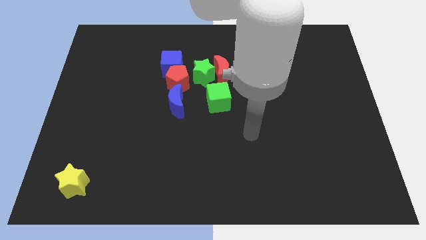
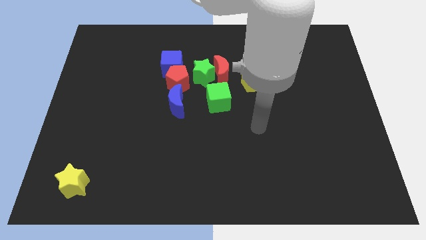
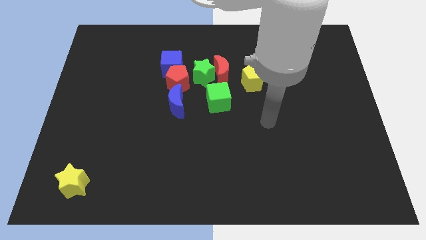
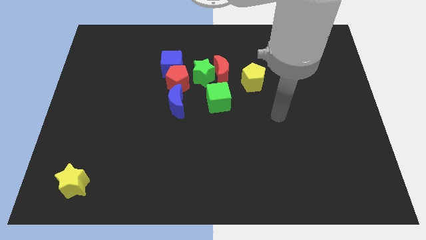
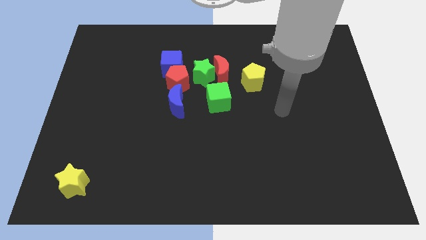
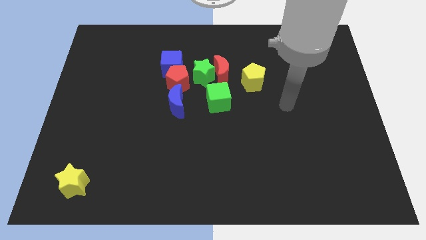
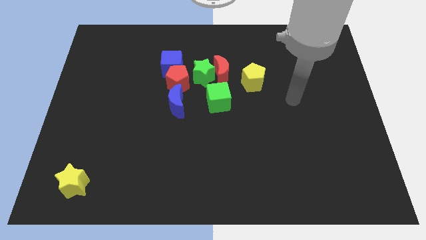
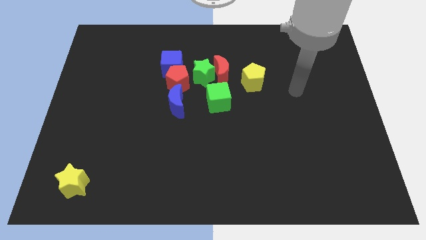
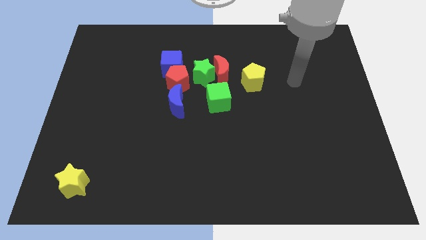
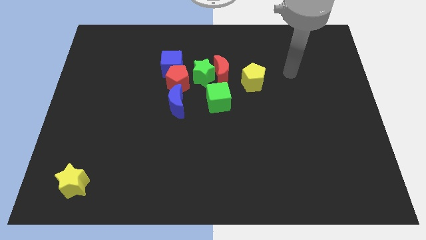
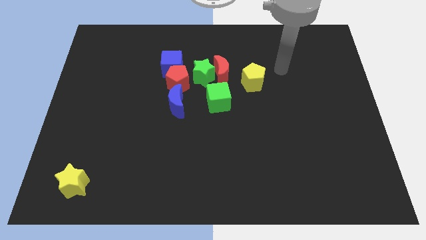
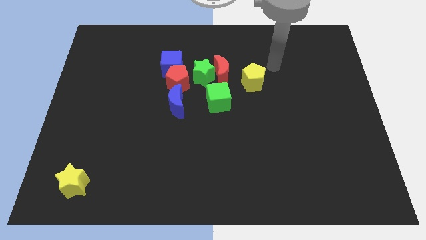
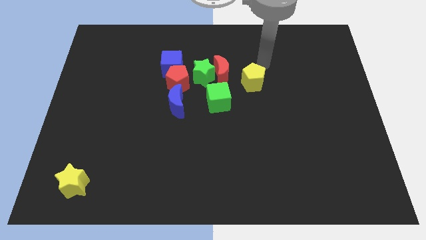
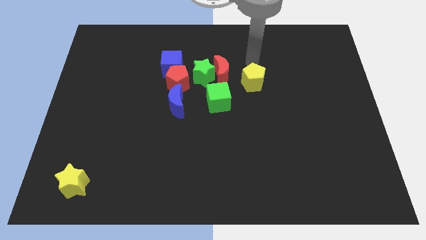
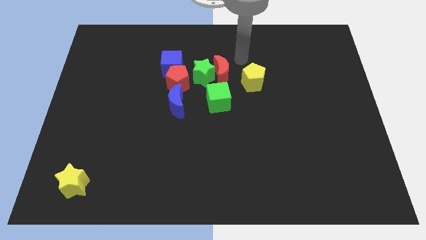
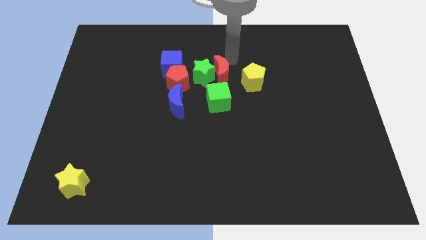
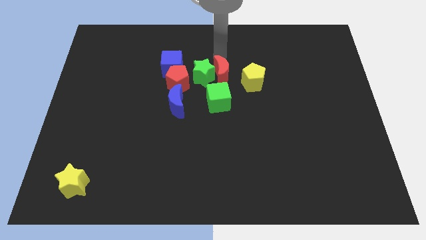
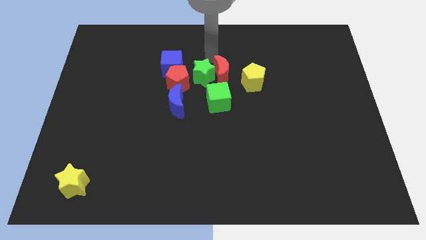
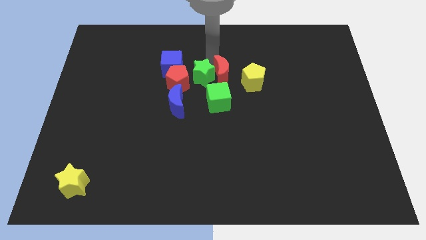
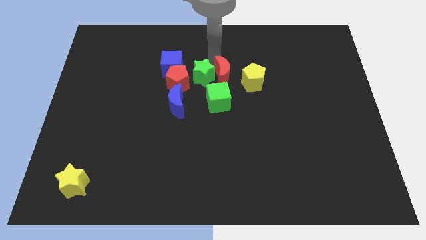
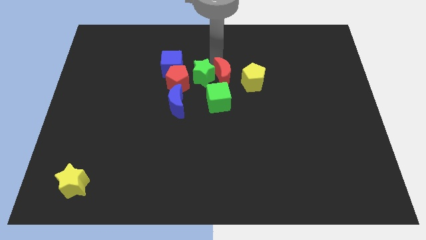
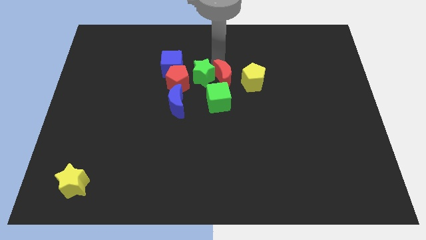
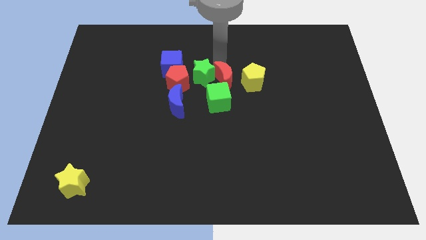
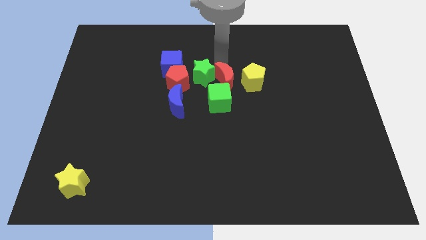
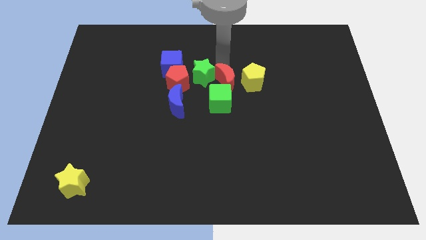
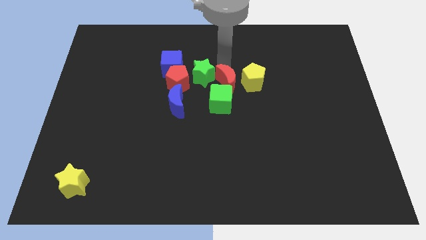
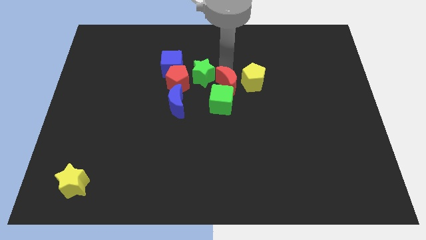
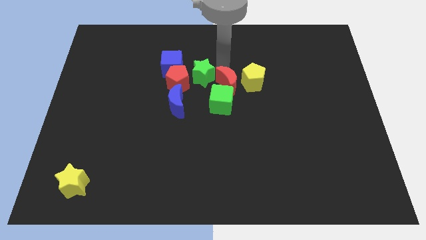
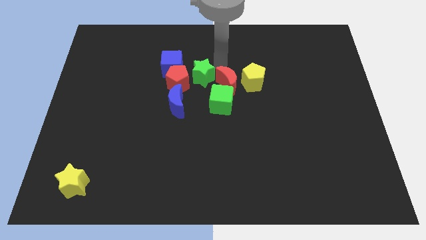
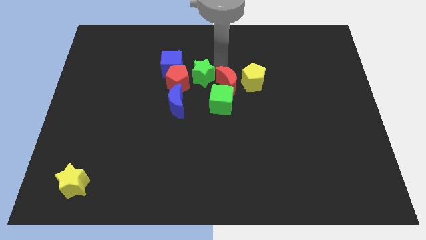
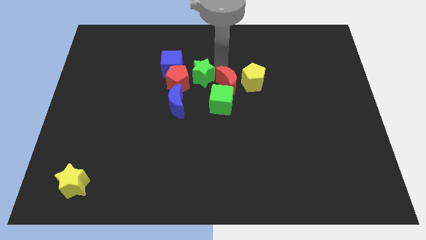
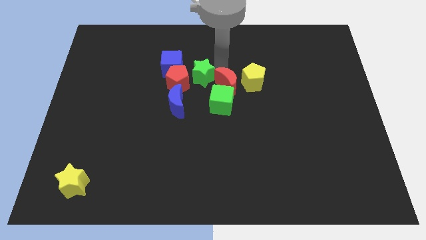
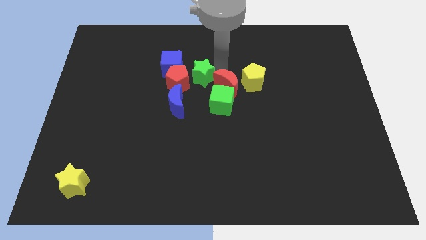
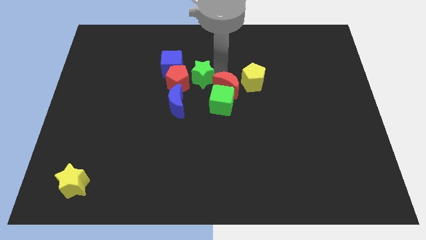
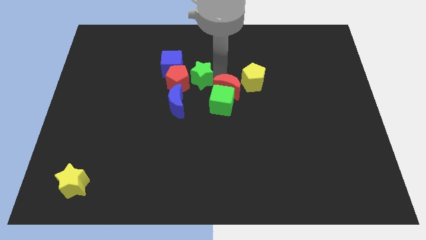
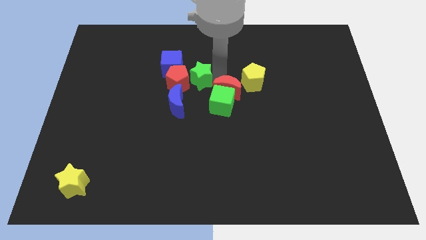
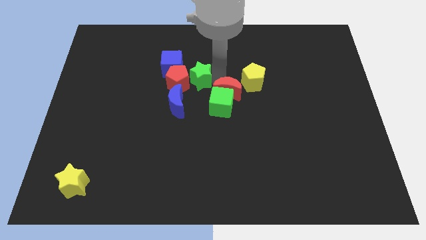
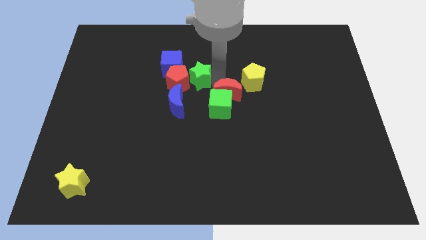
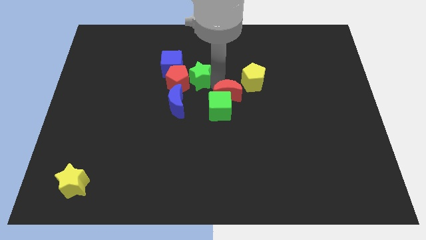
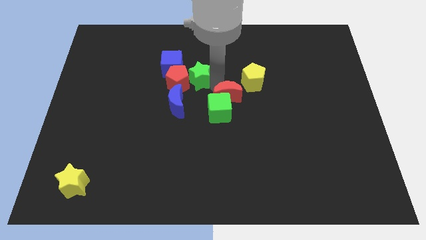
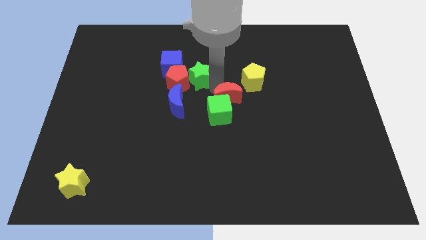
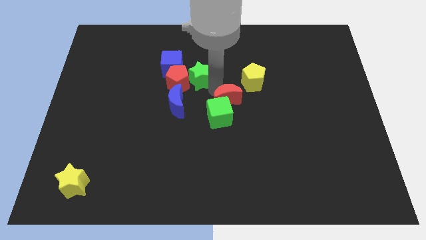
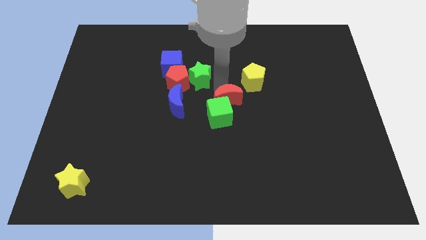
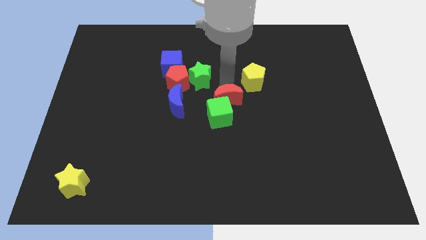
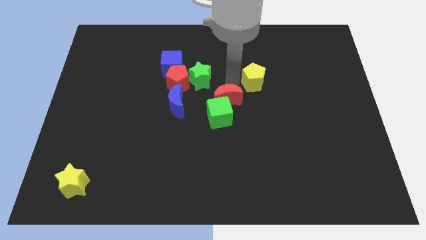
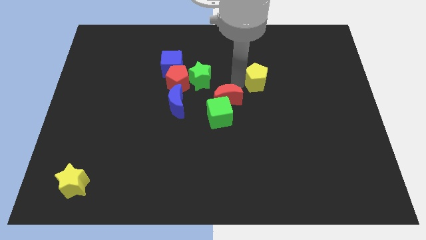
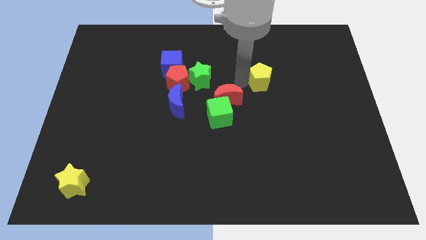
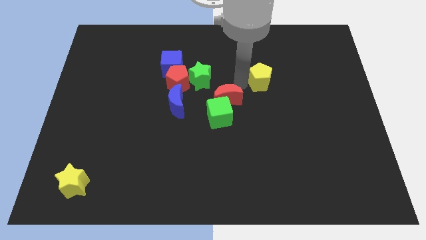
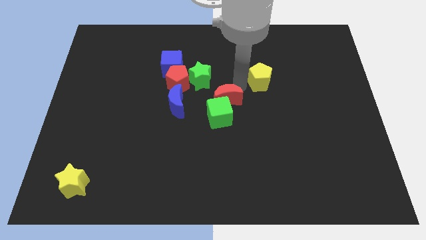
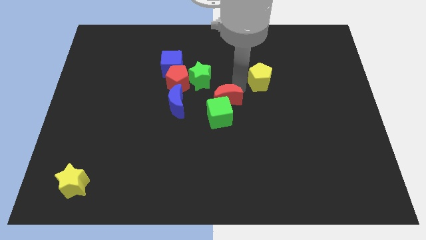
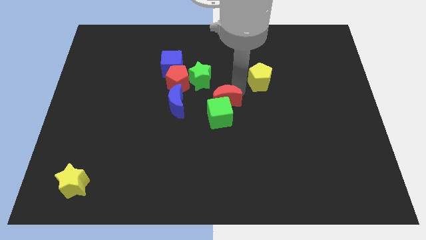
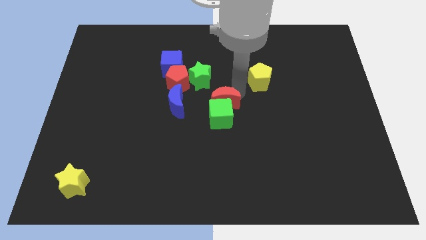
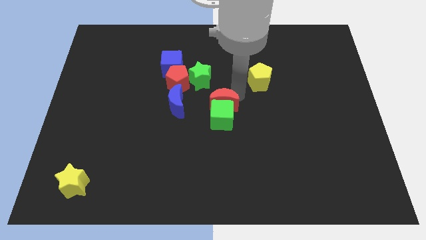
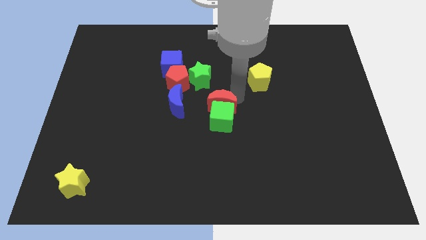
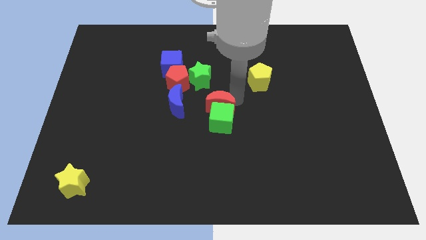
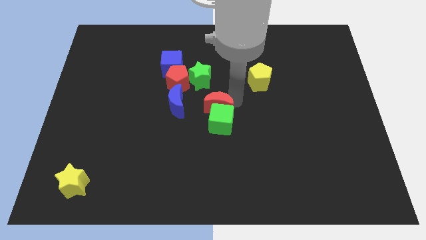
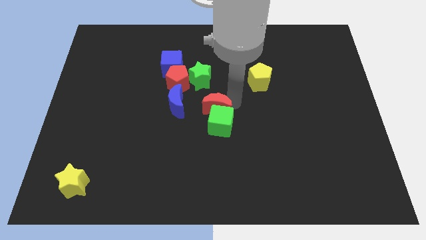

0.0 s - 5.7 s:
slide the red moon downwards and then left a little bit

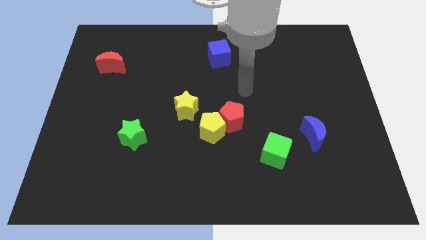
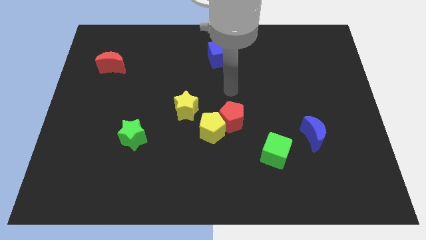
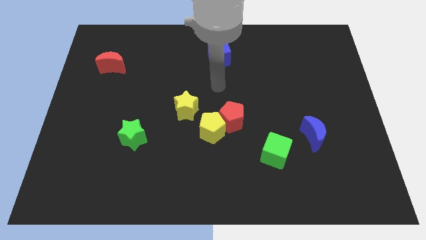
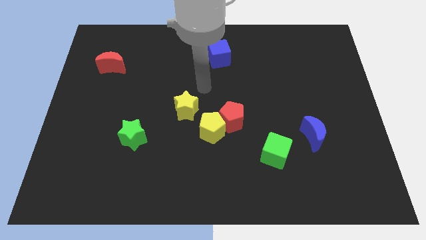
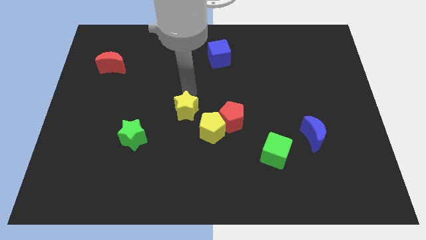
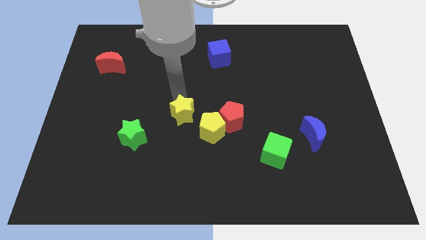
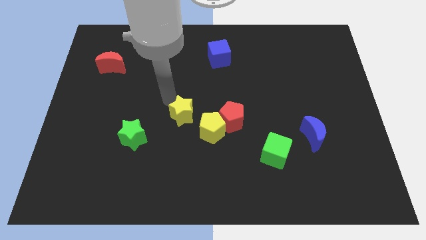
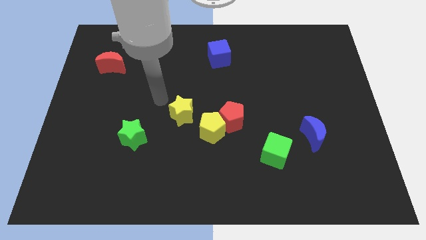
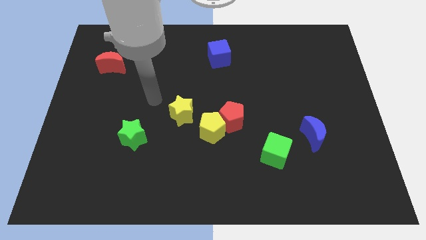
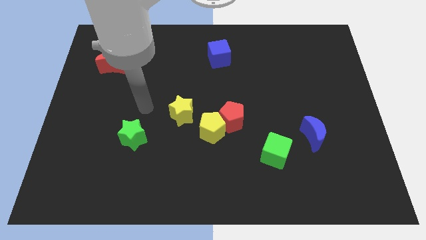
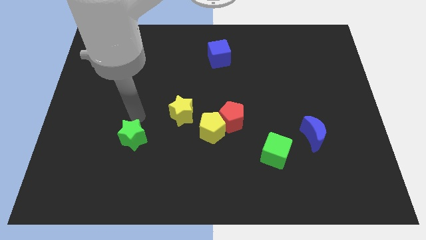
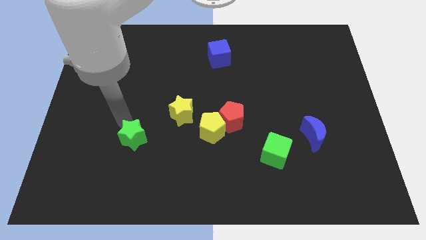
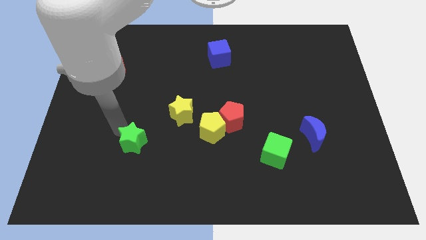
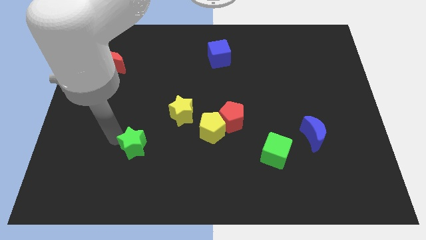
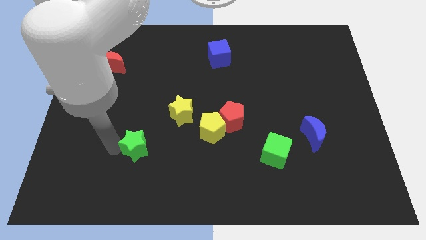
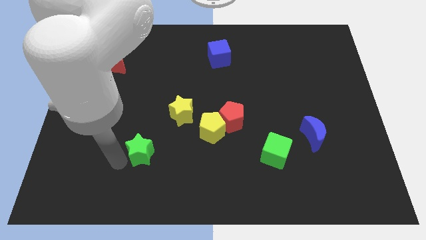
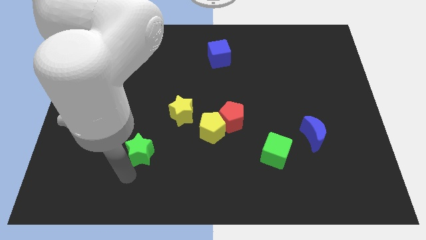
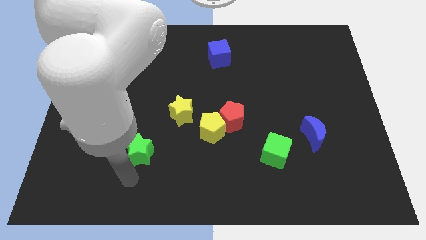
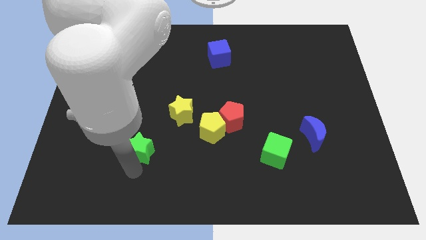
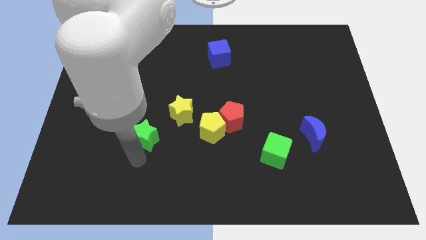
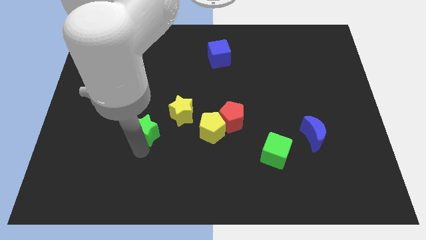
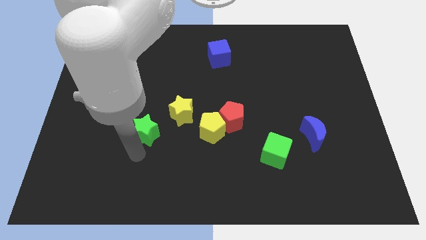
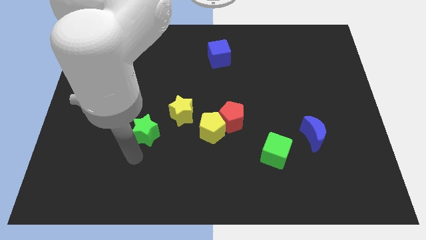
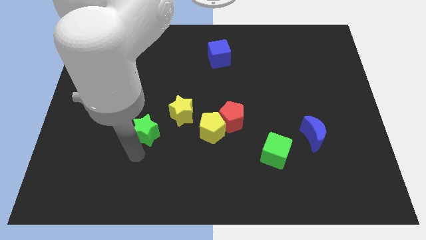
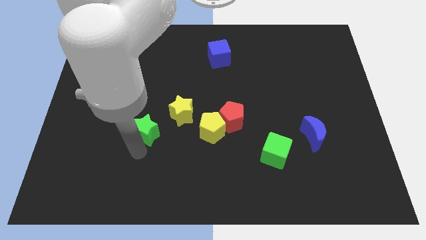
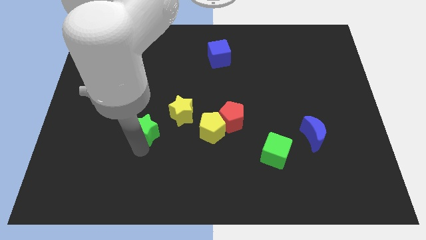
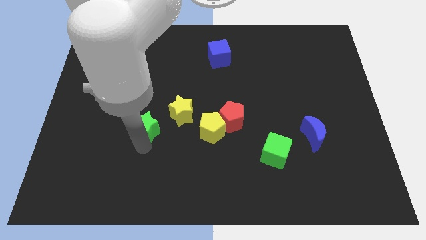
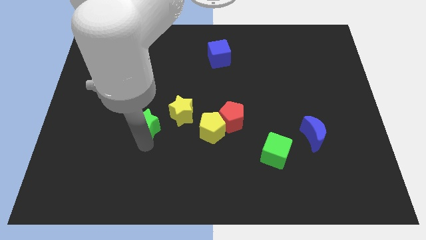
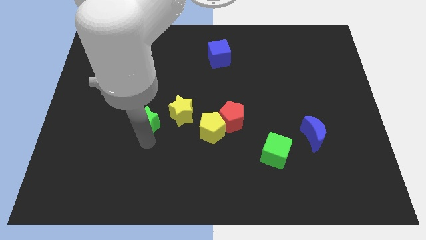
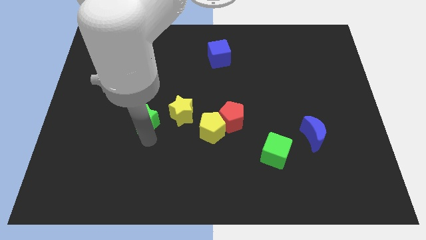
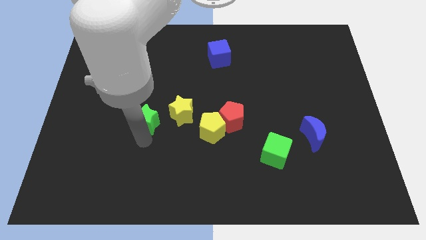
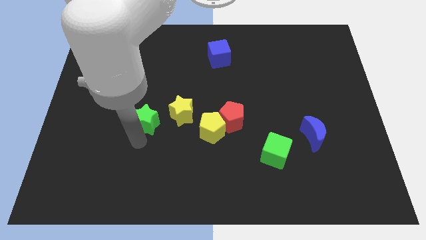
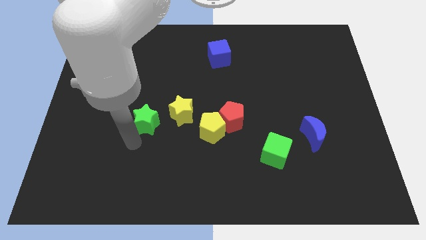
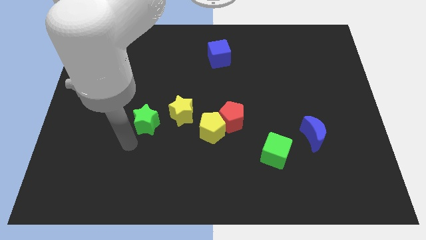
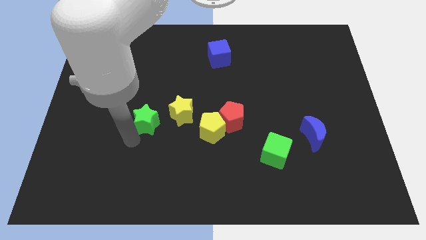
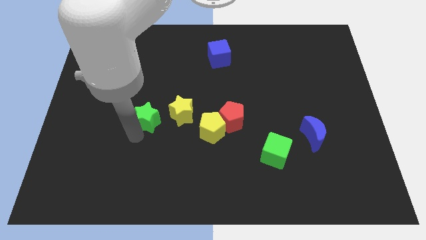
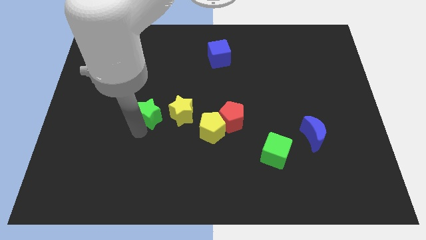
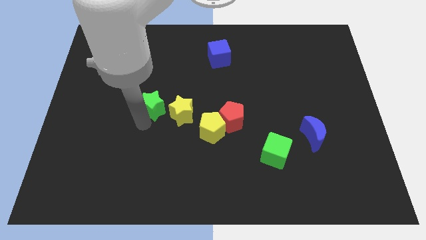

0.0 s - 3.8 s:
slightly move the green star diagonally upwards and to the right
